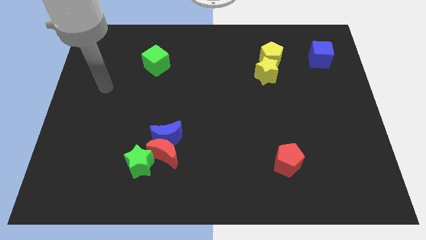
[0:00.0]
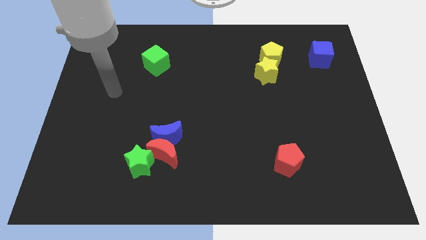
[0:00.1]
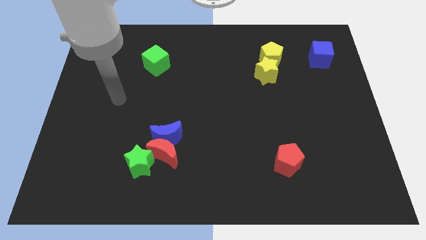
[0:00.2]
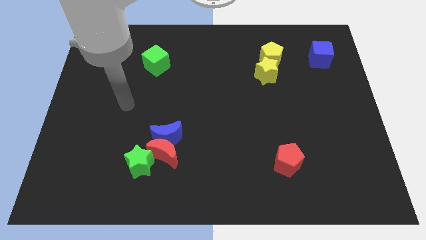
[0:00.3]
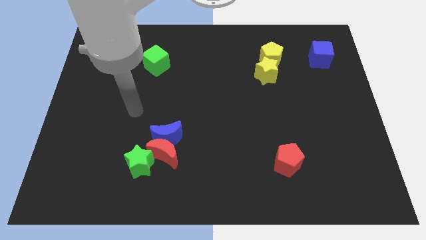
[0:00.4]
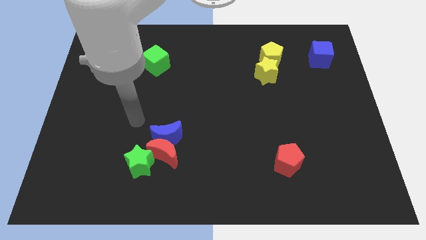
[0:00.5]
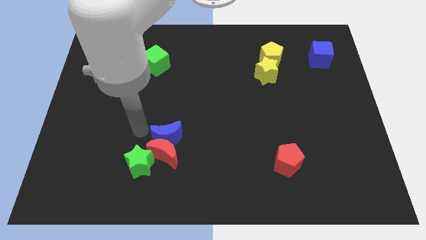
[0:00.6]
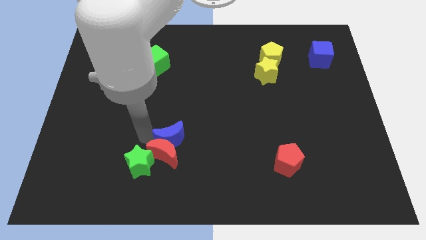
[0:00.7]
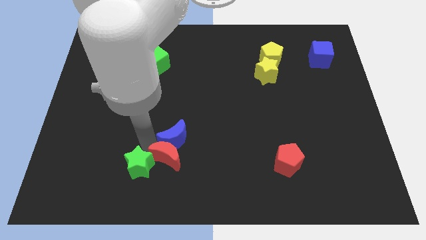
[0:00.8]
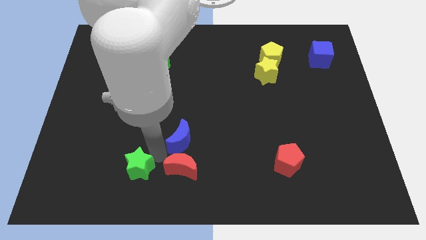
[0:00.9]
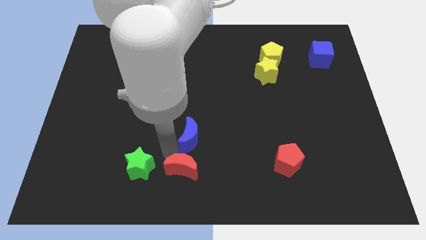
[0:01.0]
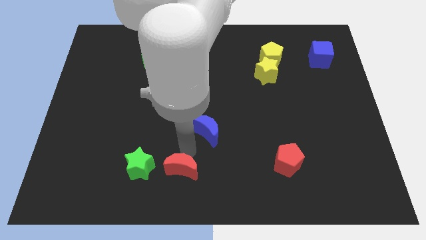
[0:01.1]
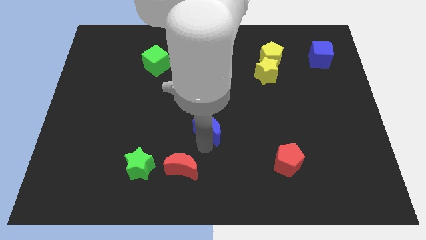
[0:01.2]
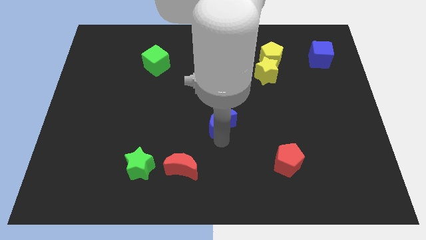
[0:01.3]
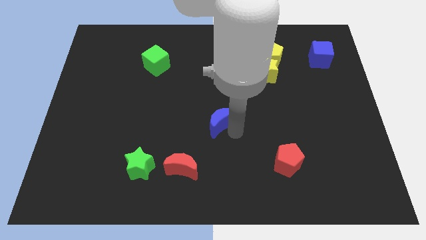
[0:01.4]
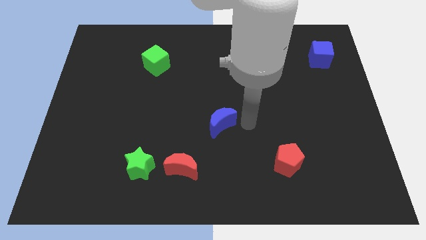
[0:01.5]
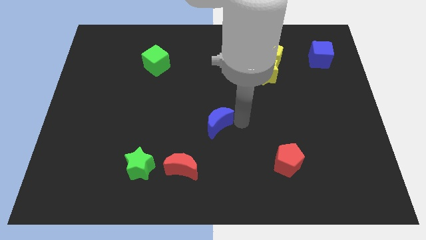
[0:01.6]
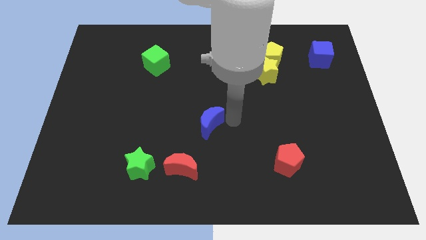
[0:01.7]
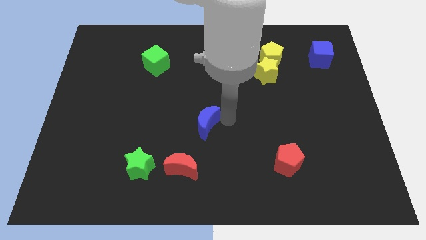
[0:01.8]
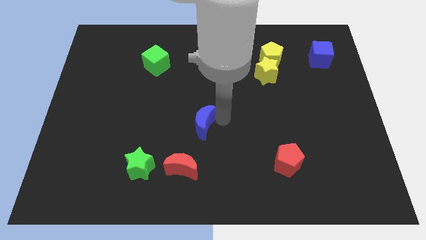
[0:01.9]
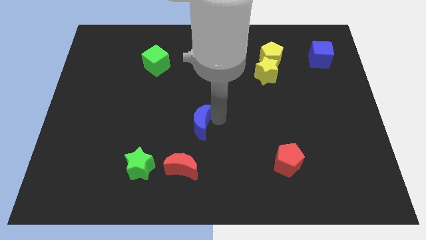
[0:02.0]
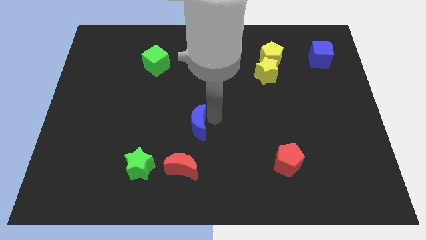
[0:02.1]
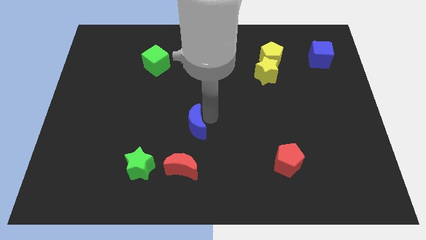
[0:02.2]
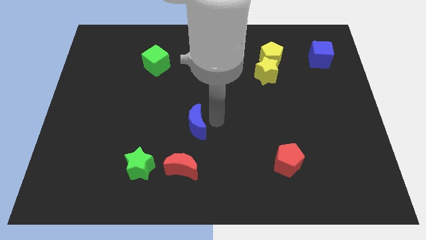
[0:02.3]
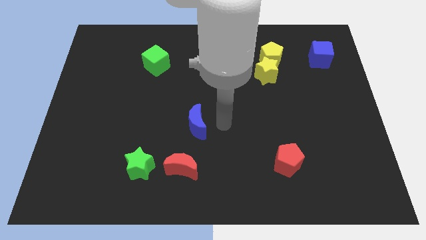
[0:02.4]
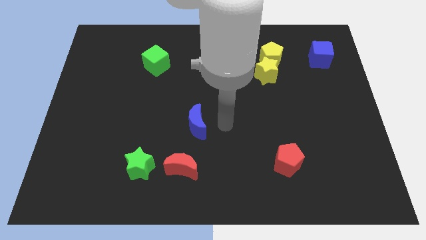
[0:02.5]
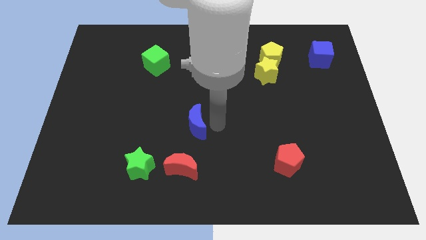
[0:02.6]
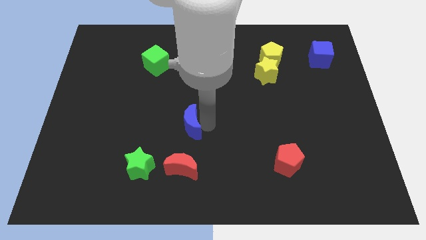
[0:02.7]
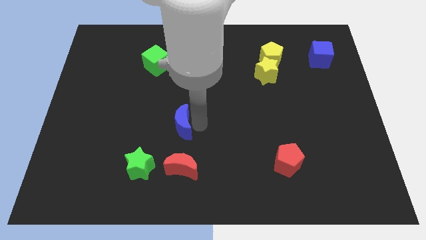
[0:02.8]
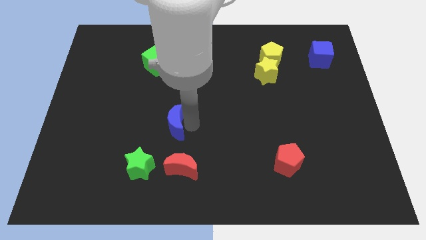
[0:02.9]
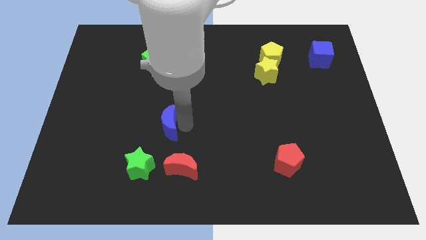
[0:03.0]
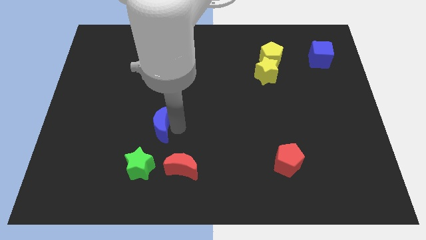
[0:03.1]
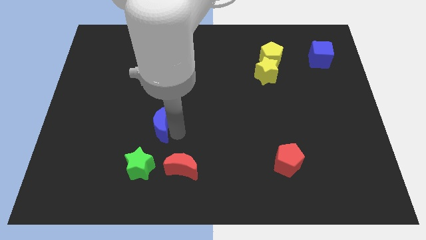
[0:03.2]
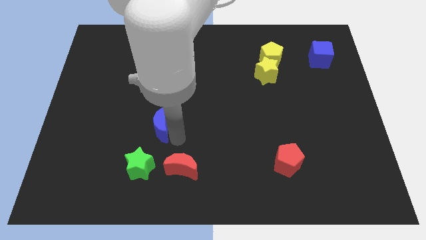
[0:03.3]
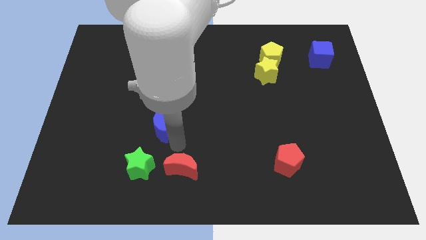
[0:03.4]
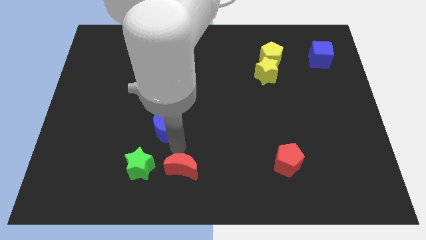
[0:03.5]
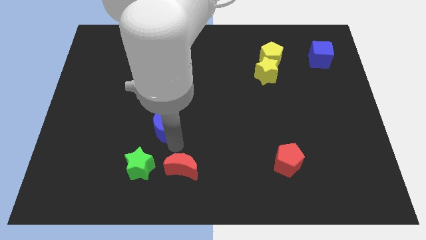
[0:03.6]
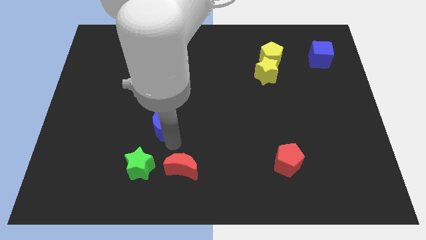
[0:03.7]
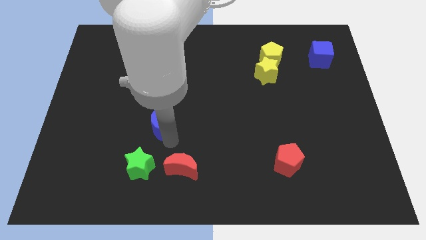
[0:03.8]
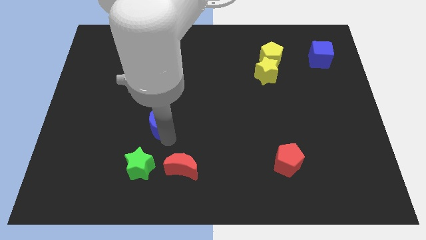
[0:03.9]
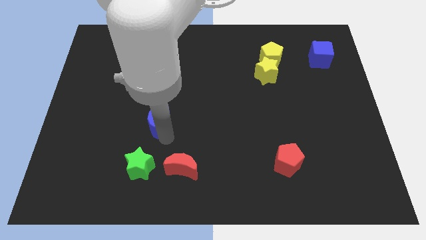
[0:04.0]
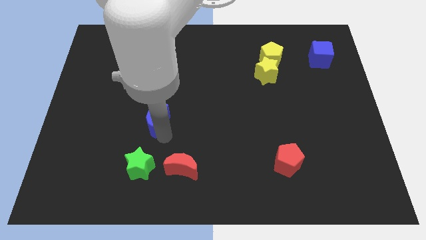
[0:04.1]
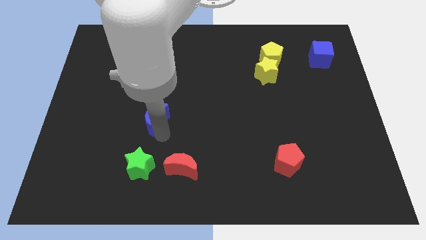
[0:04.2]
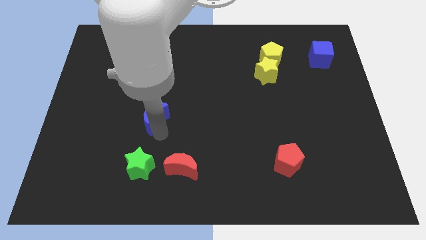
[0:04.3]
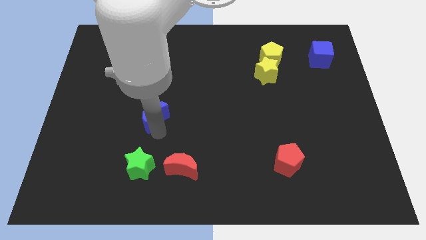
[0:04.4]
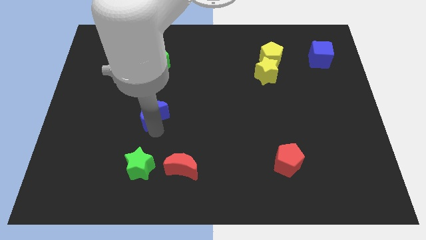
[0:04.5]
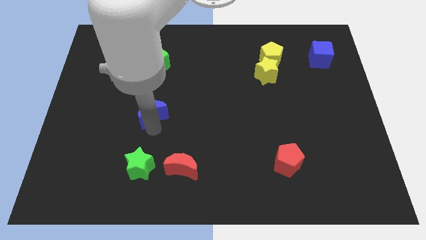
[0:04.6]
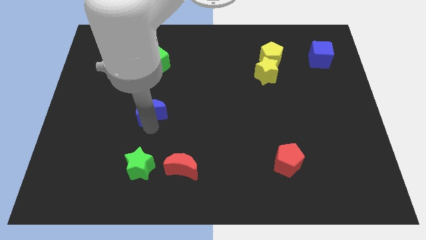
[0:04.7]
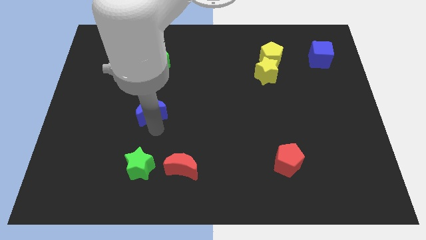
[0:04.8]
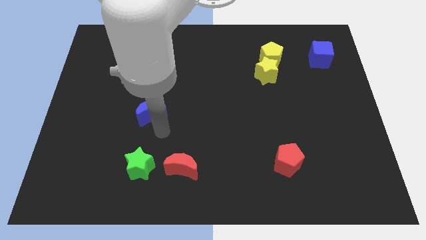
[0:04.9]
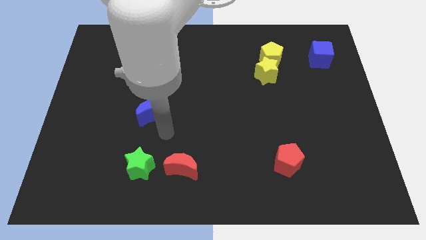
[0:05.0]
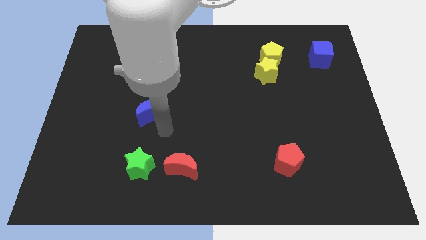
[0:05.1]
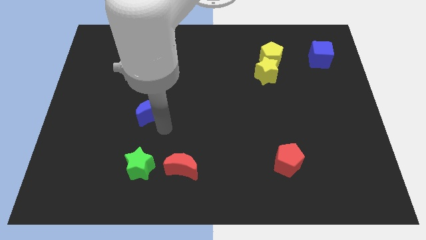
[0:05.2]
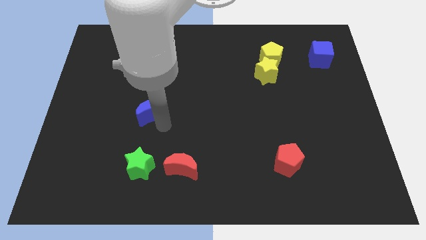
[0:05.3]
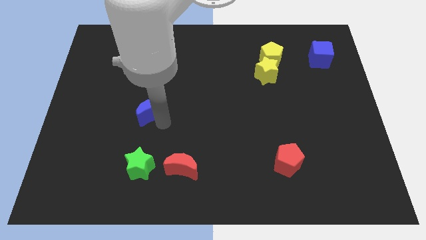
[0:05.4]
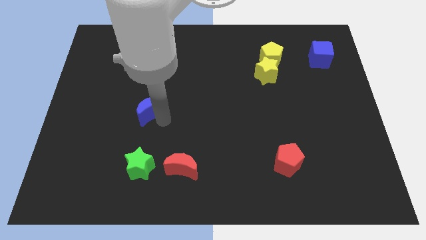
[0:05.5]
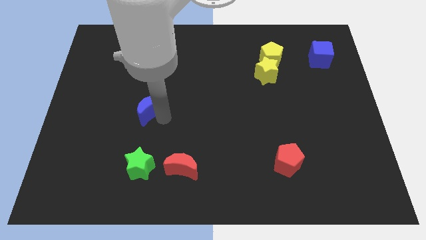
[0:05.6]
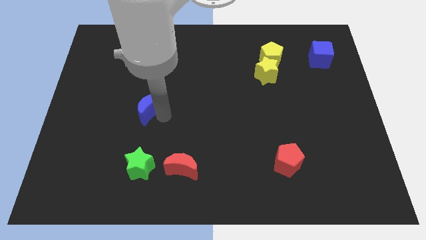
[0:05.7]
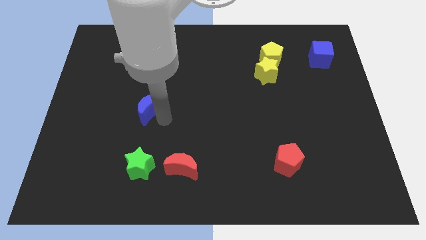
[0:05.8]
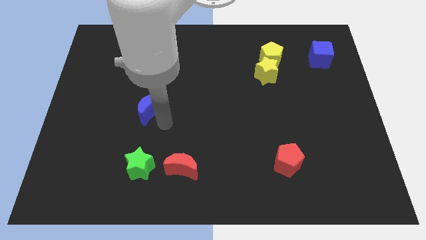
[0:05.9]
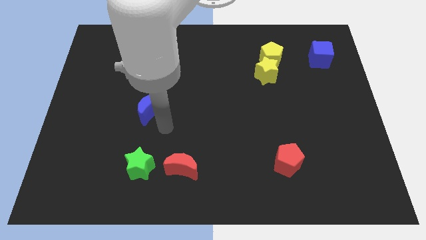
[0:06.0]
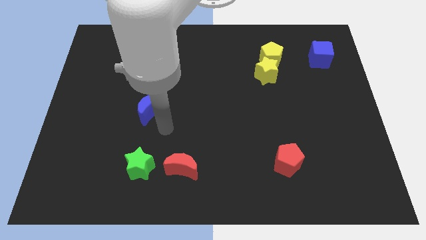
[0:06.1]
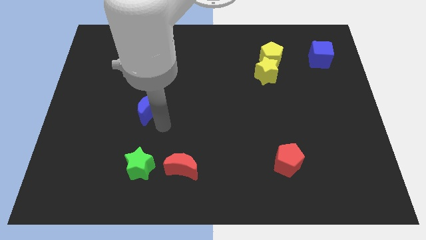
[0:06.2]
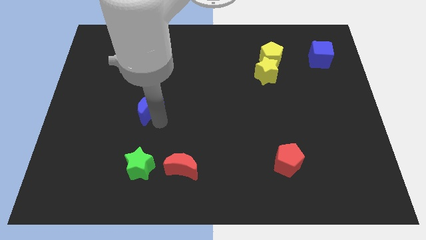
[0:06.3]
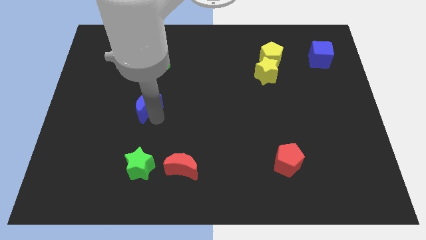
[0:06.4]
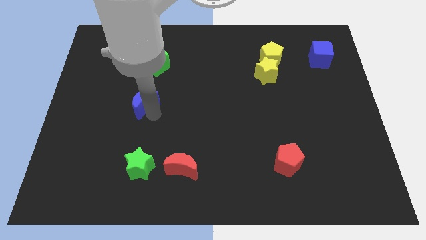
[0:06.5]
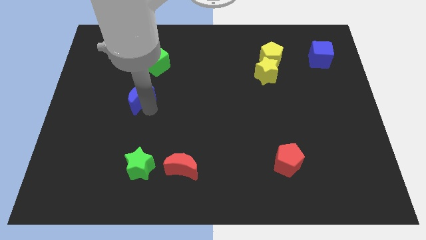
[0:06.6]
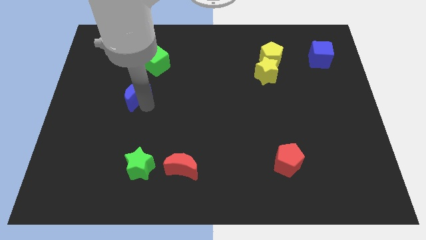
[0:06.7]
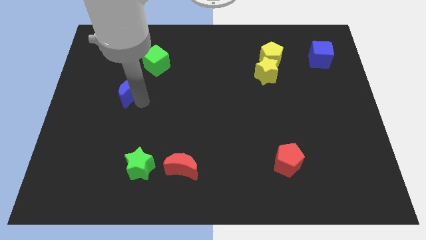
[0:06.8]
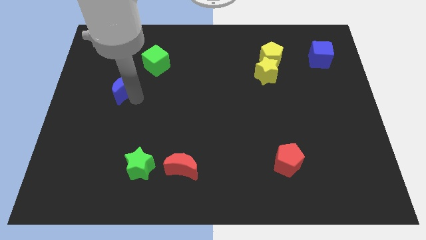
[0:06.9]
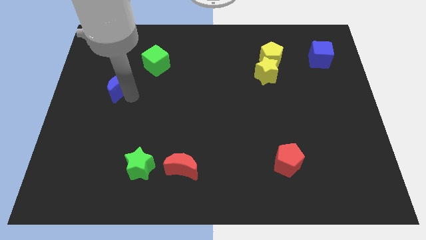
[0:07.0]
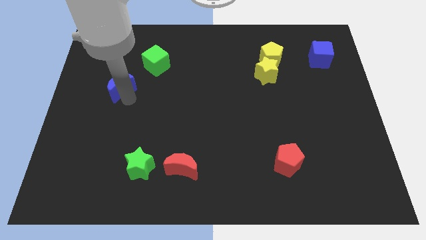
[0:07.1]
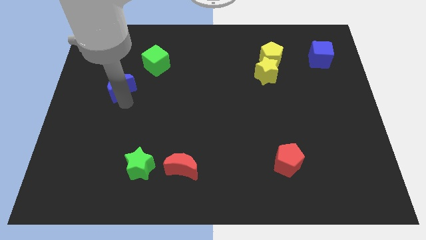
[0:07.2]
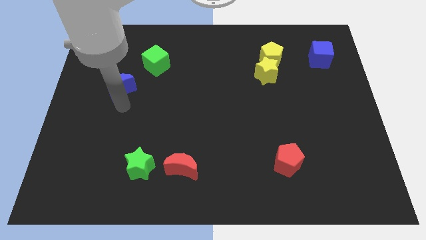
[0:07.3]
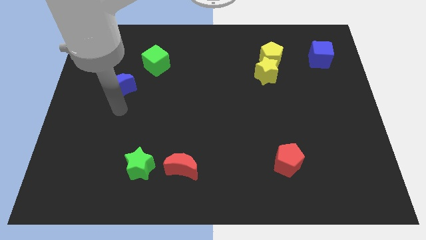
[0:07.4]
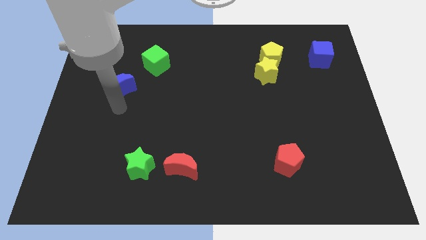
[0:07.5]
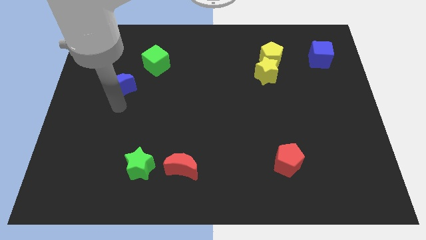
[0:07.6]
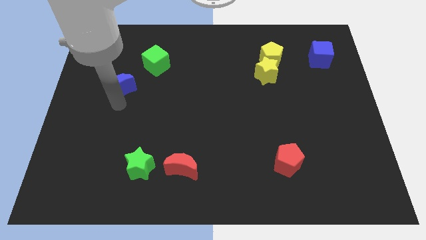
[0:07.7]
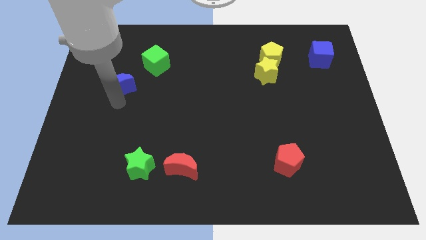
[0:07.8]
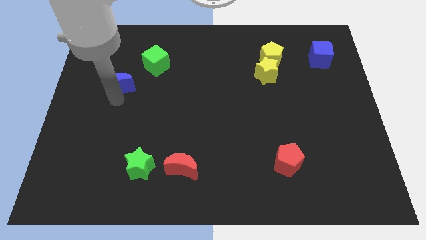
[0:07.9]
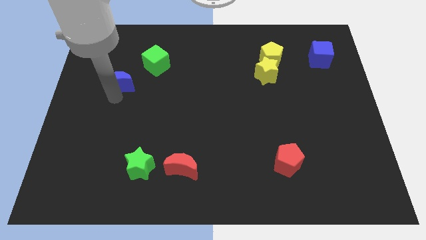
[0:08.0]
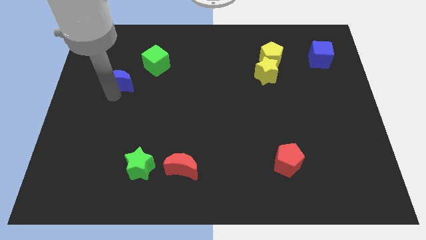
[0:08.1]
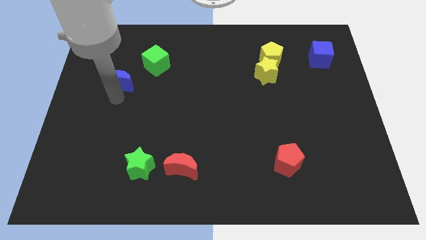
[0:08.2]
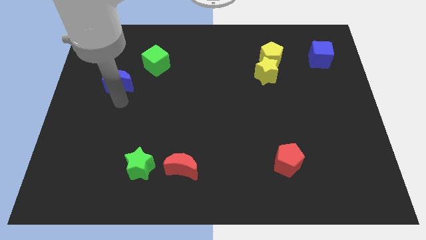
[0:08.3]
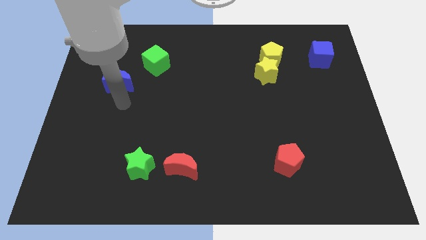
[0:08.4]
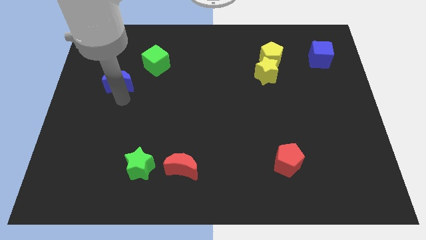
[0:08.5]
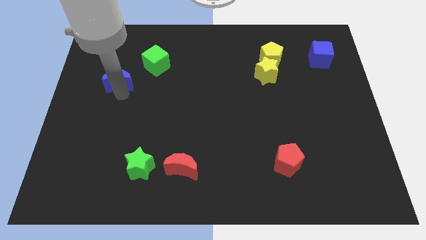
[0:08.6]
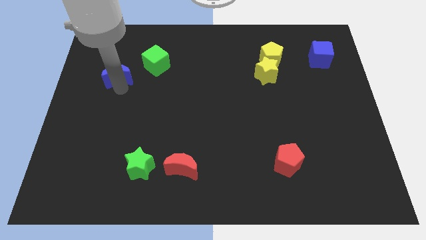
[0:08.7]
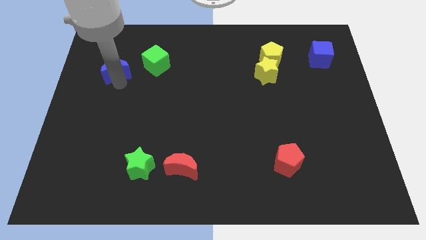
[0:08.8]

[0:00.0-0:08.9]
push the blue moon left of the green cube
